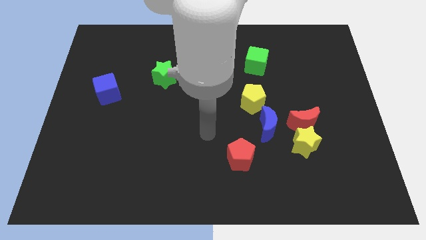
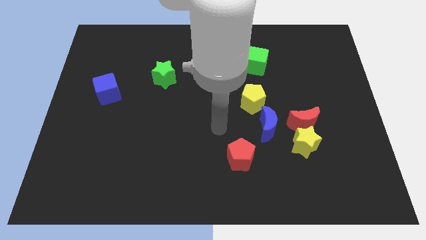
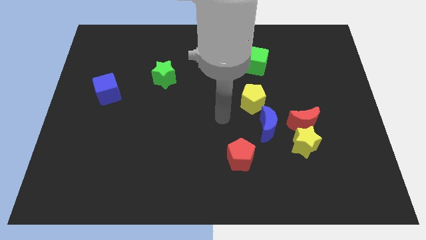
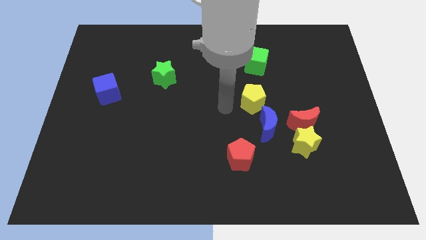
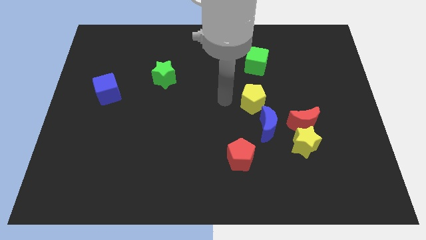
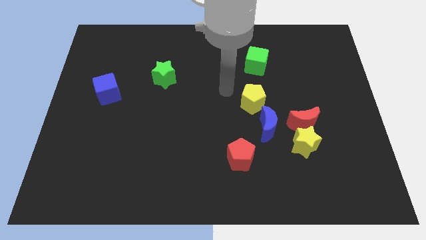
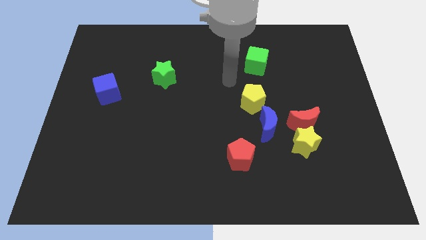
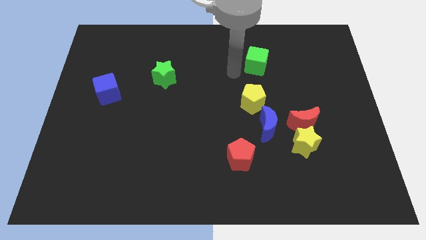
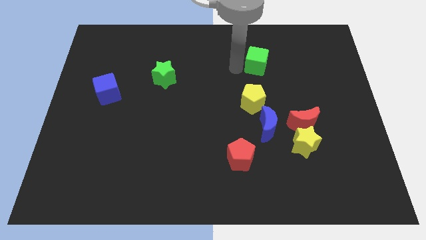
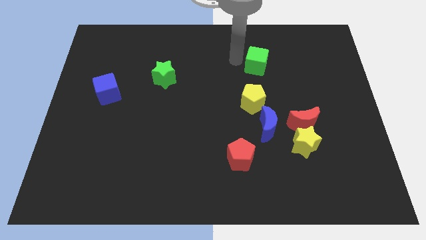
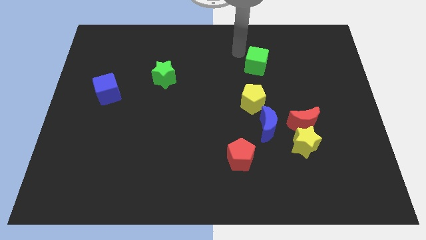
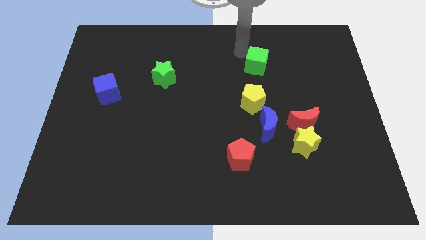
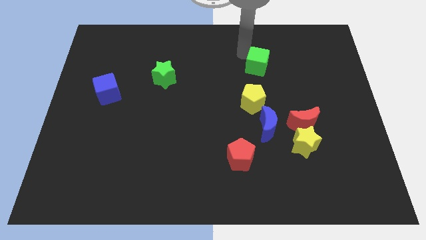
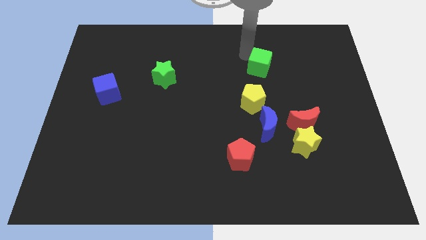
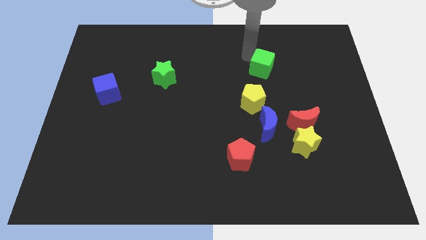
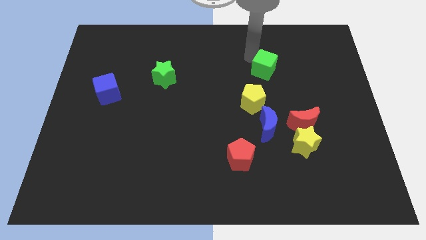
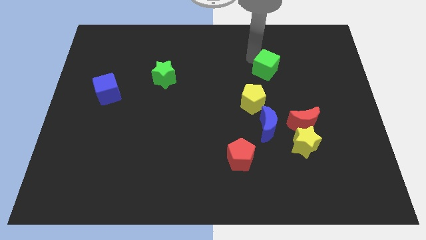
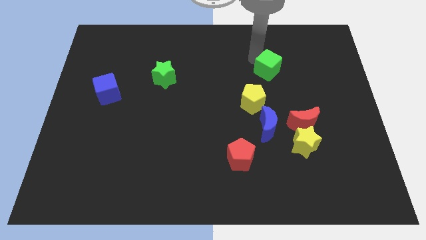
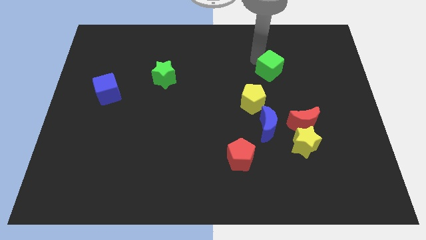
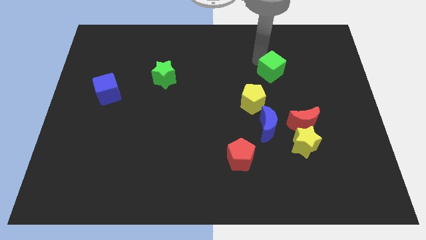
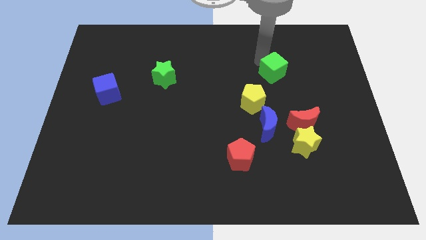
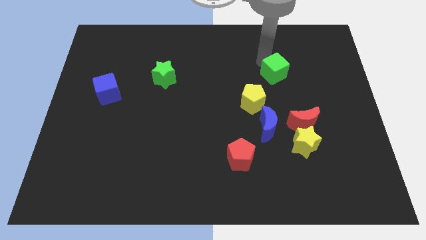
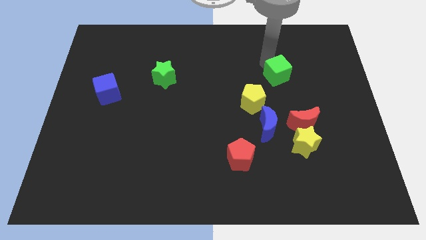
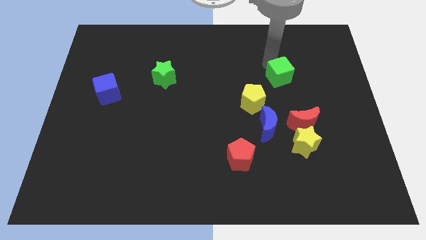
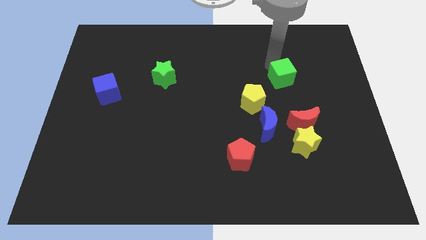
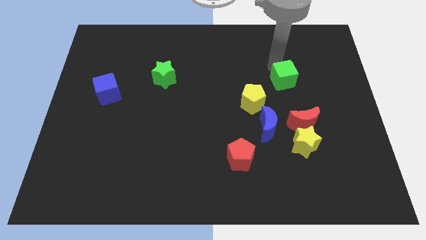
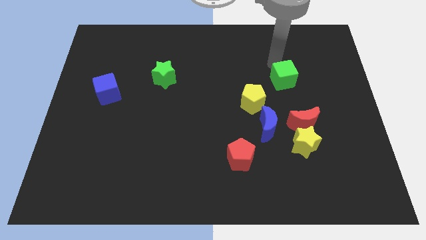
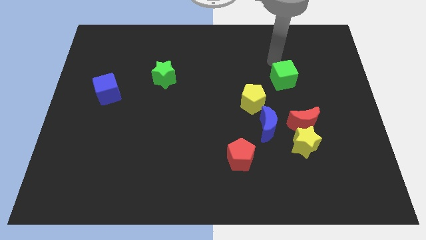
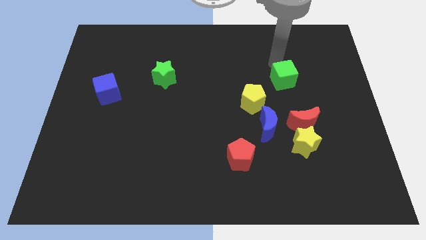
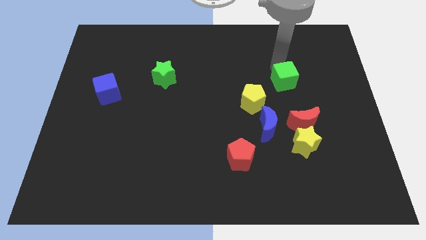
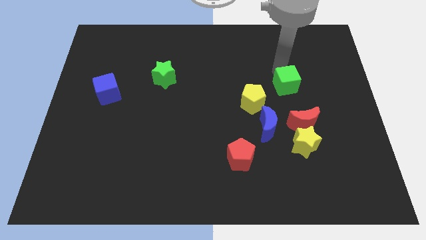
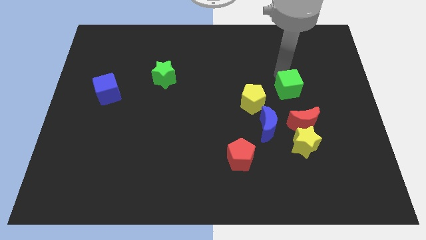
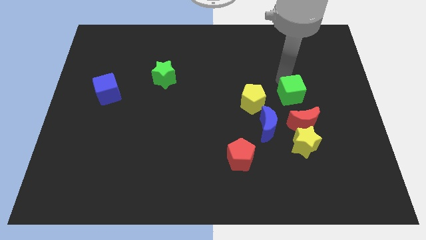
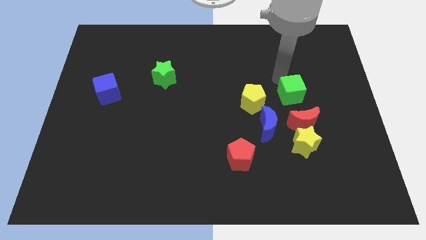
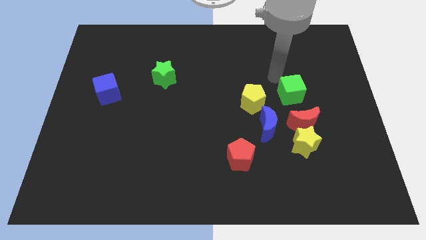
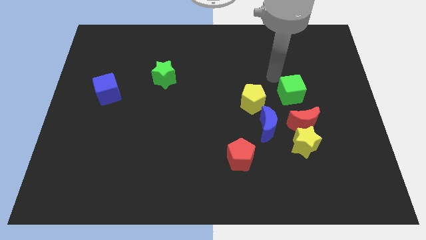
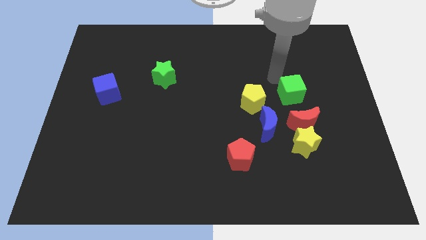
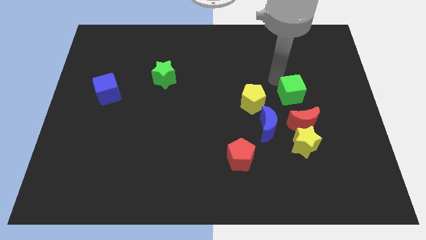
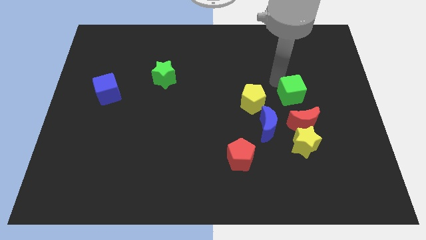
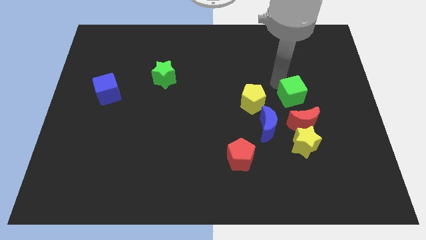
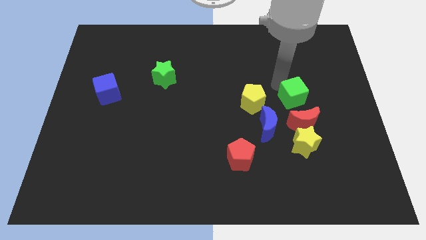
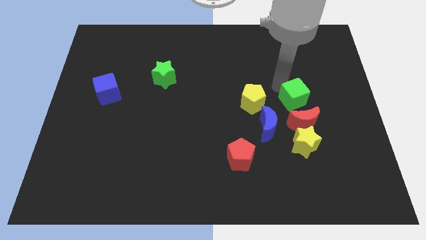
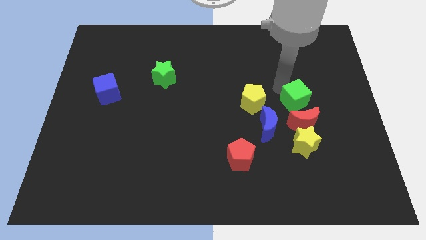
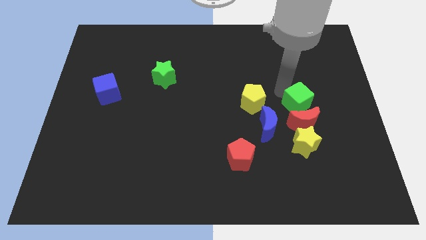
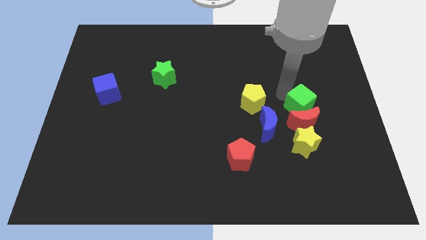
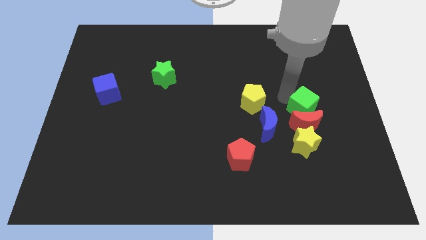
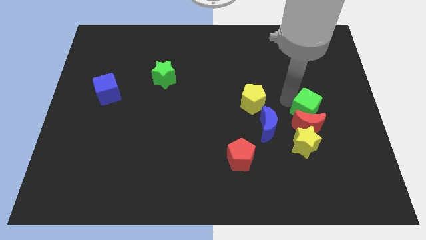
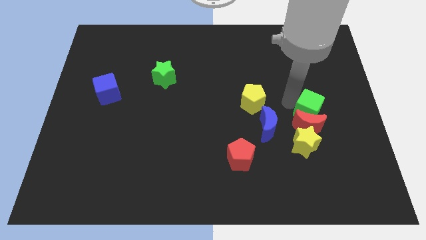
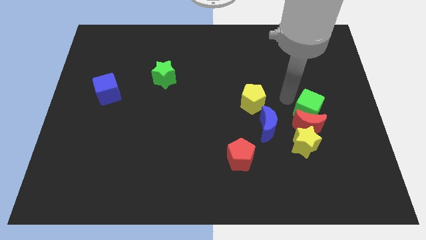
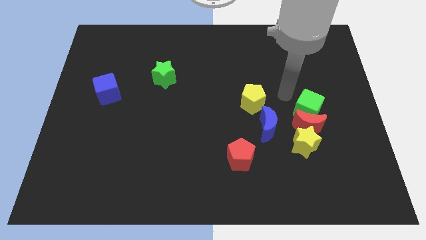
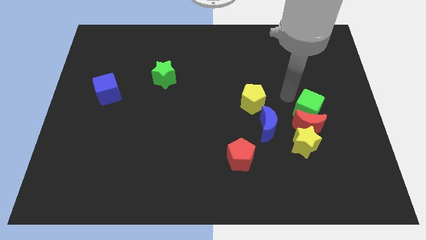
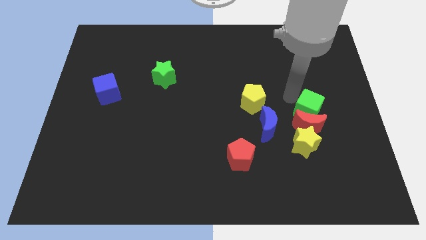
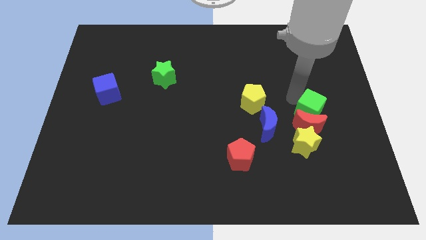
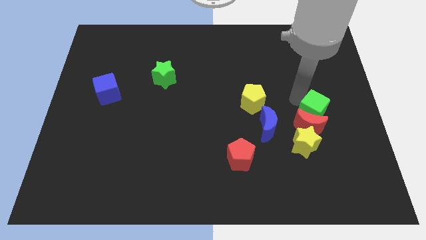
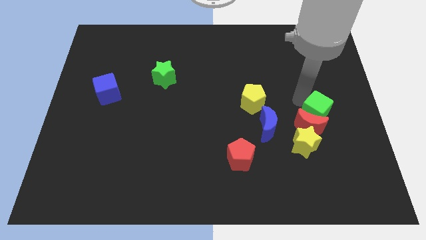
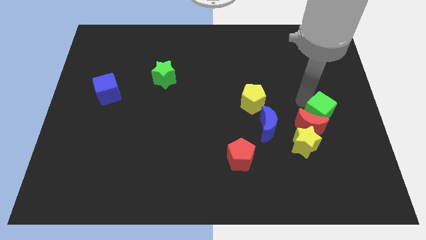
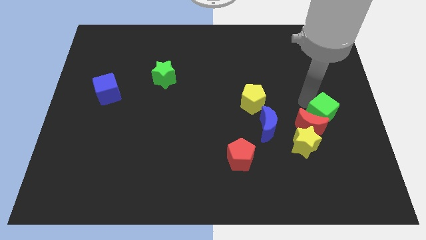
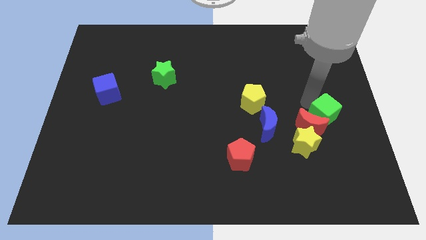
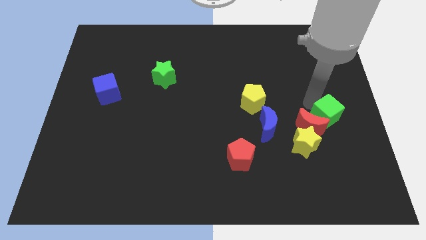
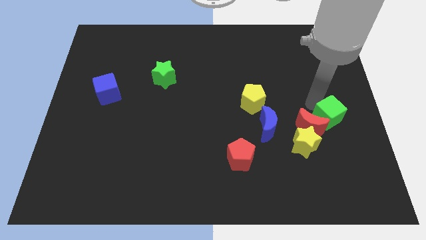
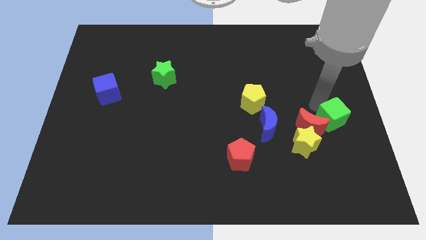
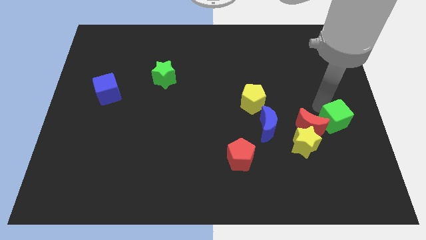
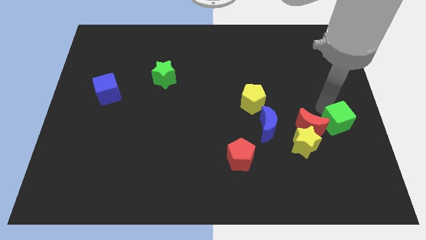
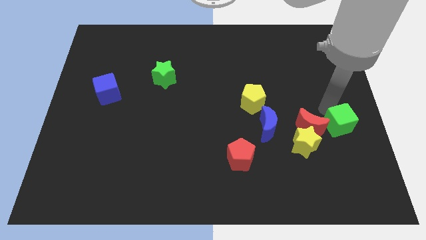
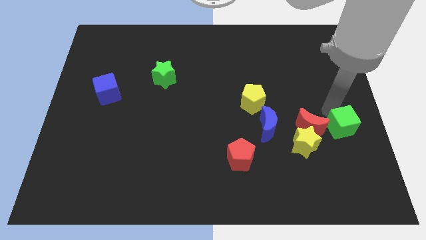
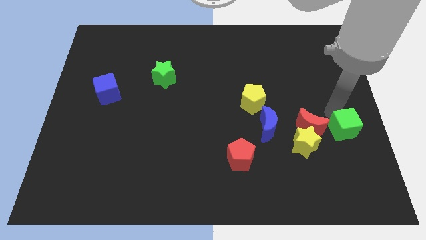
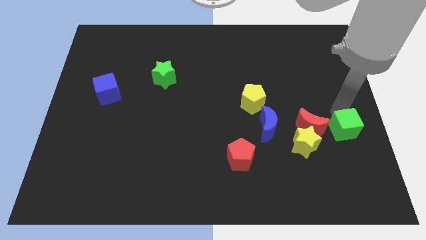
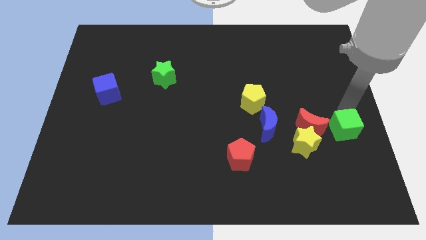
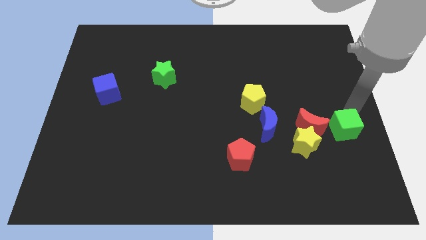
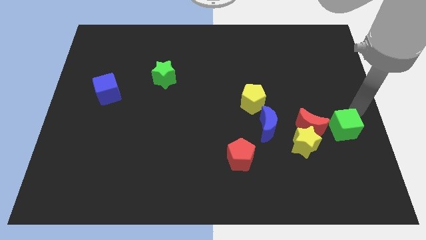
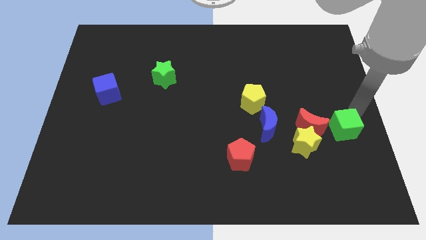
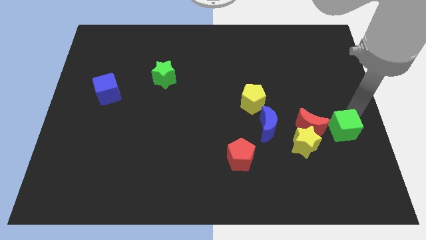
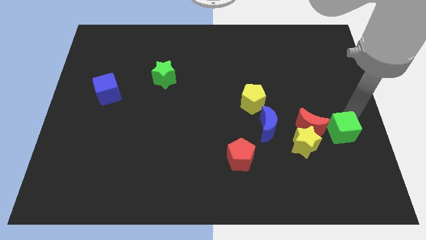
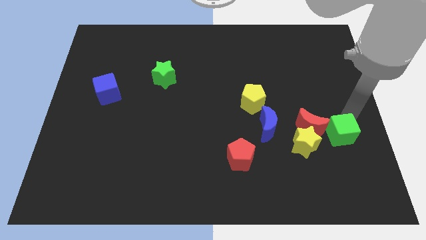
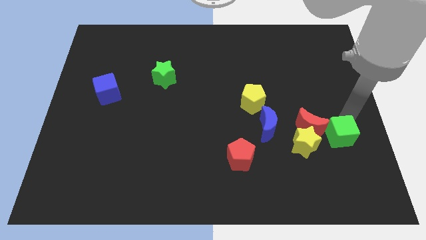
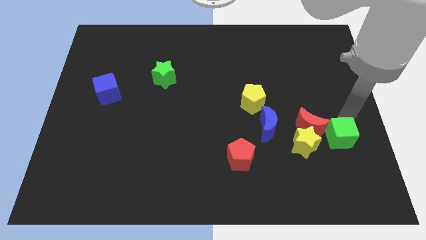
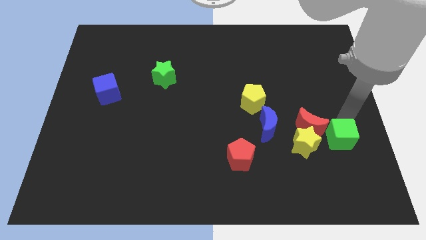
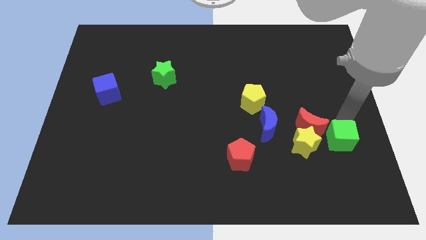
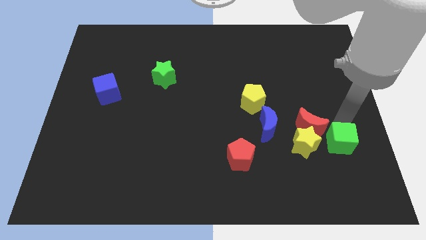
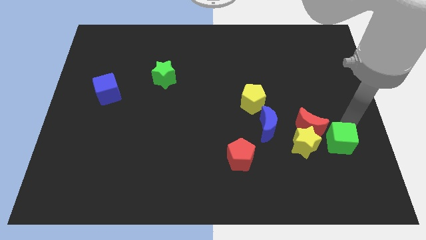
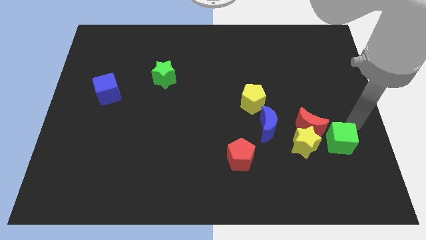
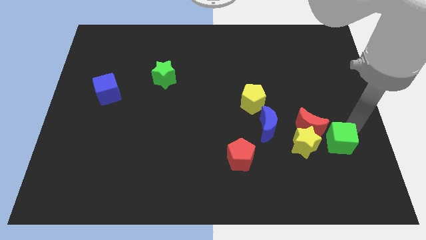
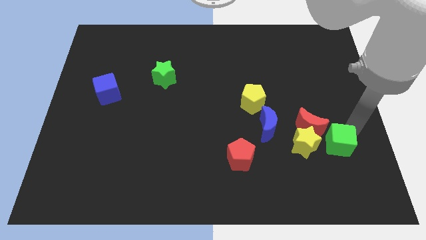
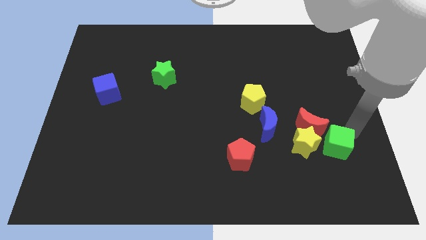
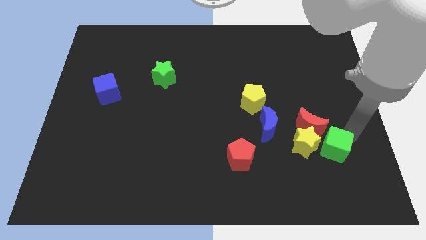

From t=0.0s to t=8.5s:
move the green cube below the red moon
